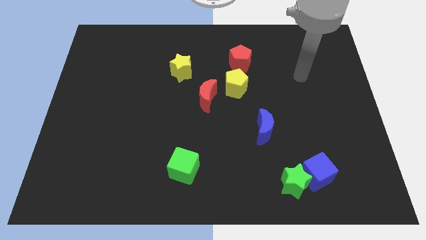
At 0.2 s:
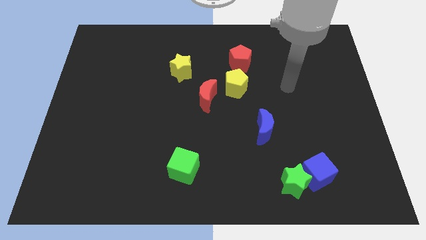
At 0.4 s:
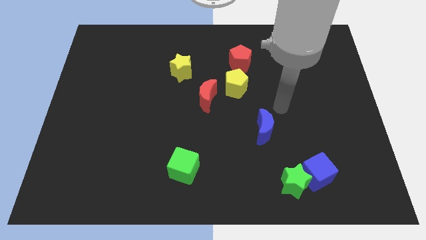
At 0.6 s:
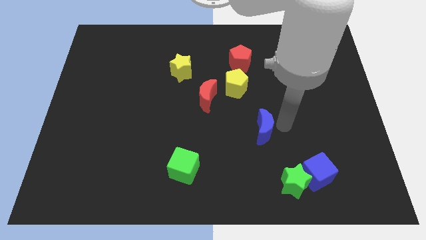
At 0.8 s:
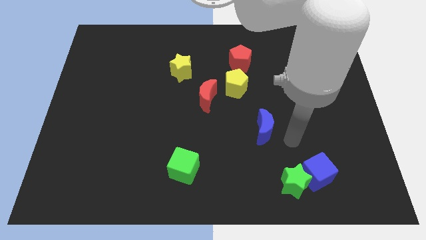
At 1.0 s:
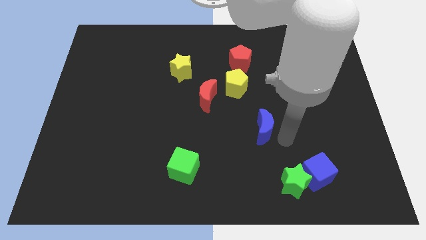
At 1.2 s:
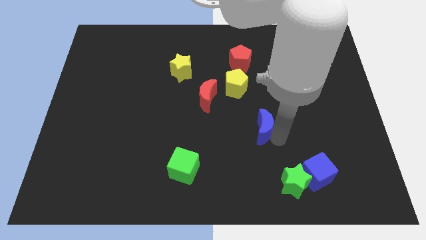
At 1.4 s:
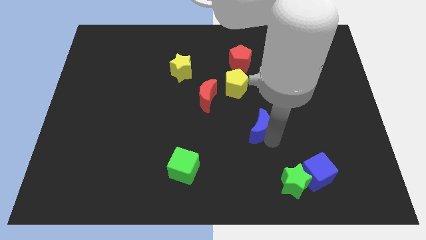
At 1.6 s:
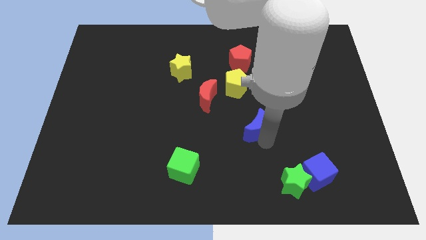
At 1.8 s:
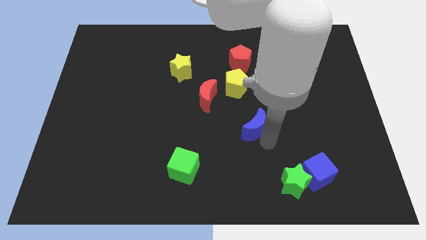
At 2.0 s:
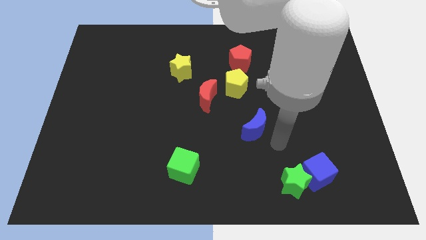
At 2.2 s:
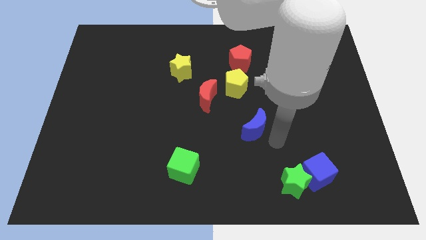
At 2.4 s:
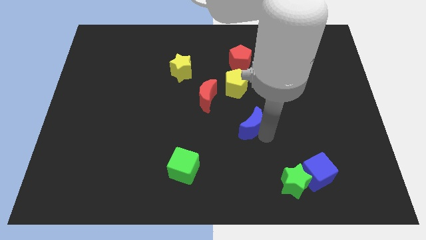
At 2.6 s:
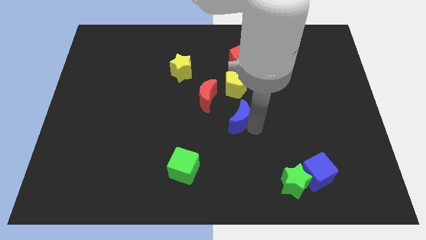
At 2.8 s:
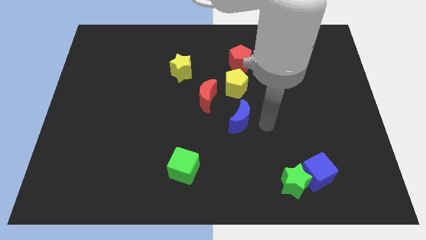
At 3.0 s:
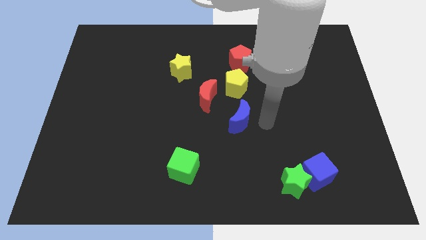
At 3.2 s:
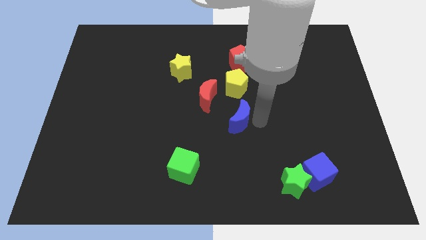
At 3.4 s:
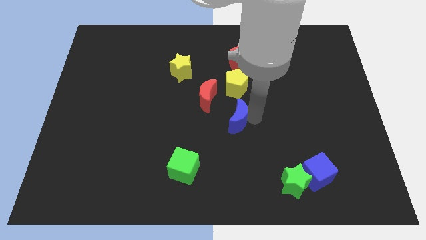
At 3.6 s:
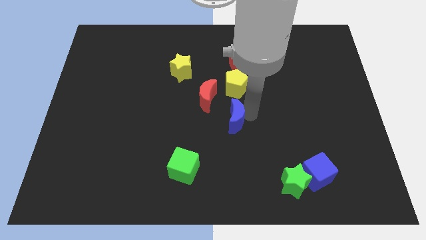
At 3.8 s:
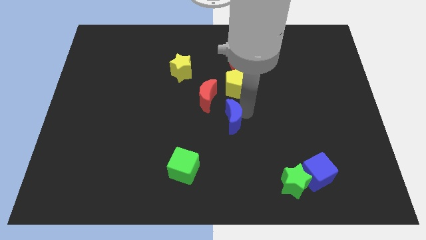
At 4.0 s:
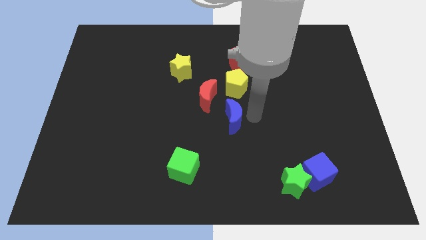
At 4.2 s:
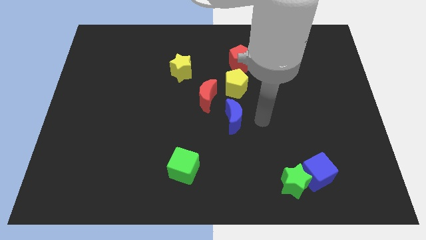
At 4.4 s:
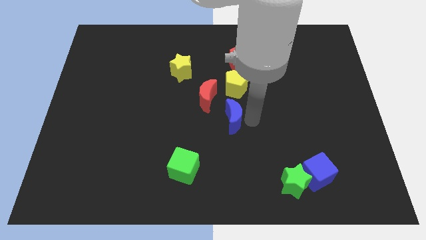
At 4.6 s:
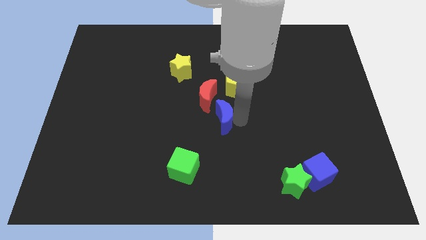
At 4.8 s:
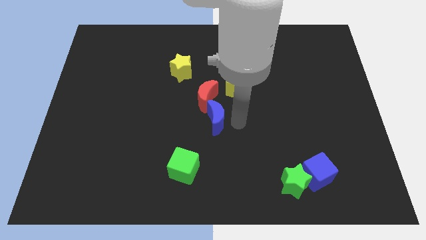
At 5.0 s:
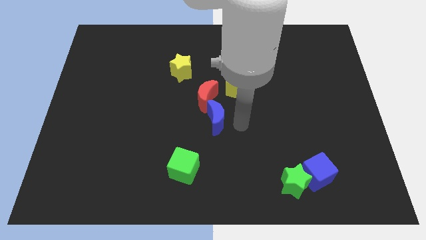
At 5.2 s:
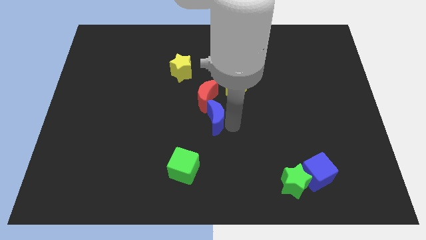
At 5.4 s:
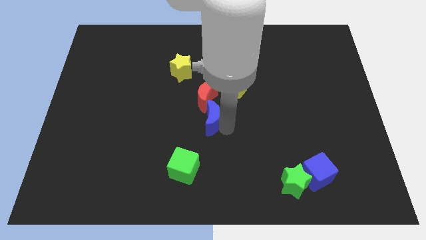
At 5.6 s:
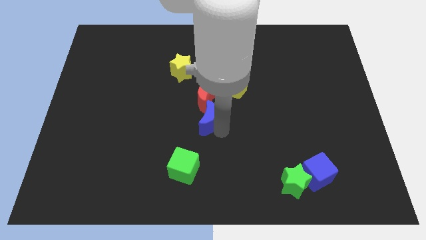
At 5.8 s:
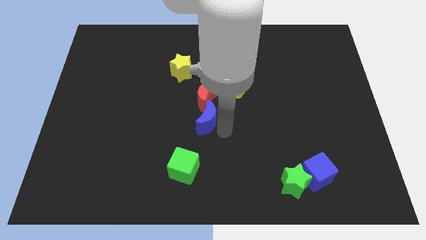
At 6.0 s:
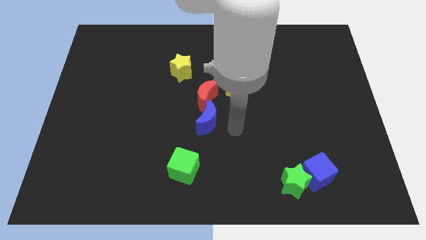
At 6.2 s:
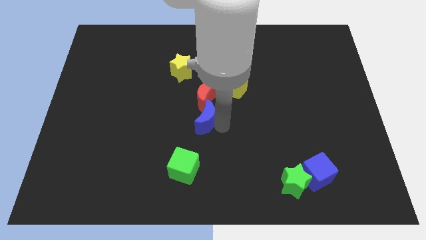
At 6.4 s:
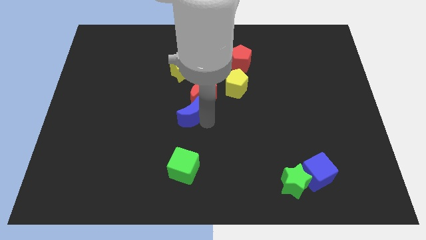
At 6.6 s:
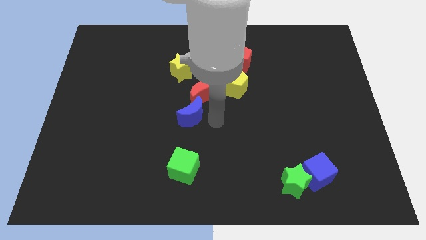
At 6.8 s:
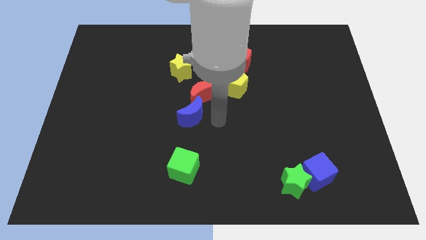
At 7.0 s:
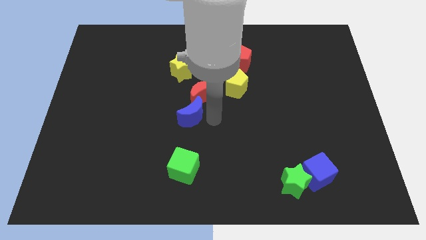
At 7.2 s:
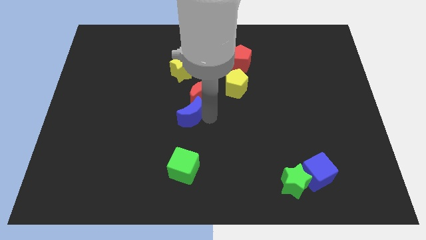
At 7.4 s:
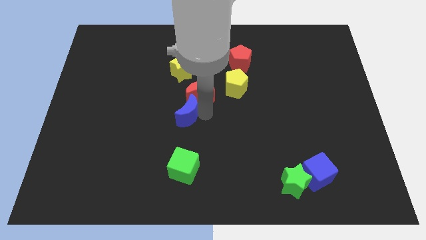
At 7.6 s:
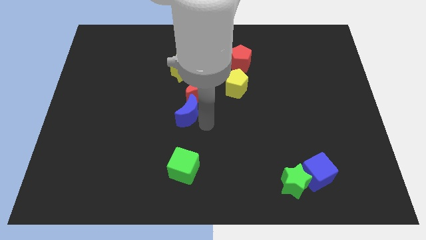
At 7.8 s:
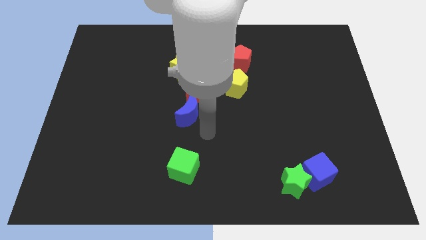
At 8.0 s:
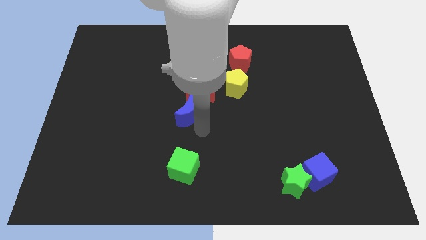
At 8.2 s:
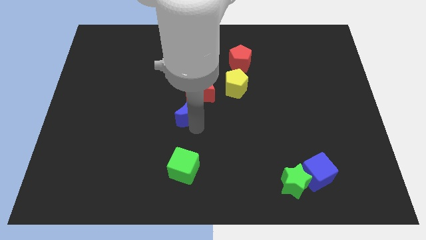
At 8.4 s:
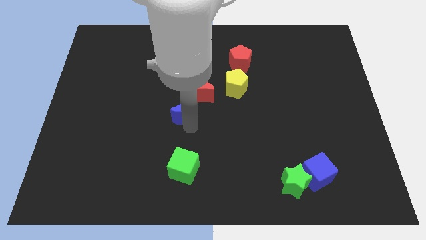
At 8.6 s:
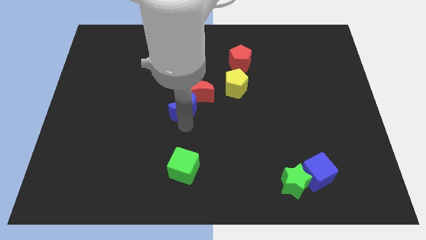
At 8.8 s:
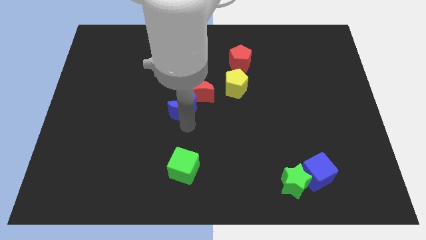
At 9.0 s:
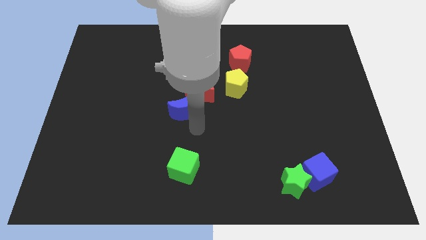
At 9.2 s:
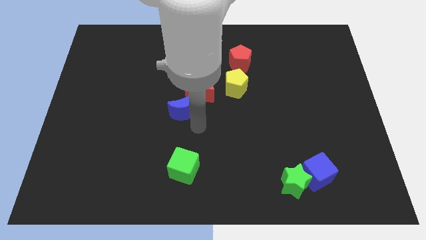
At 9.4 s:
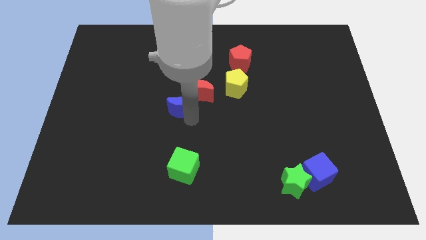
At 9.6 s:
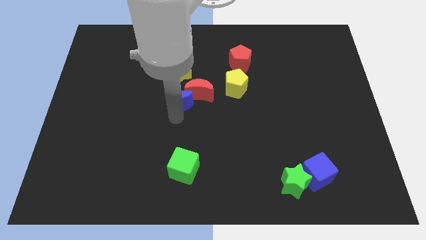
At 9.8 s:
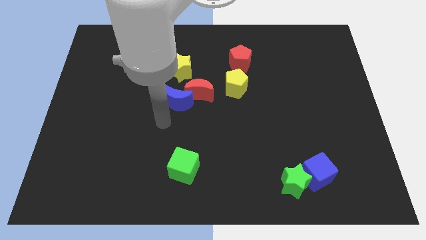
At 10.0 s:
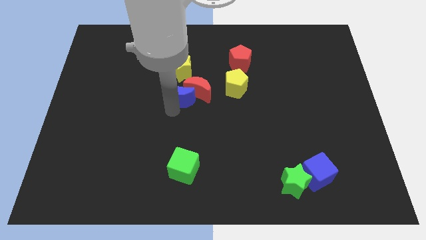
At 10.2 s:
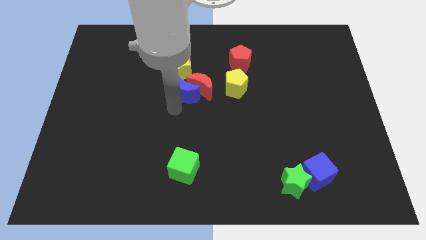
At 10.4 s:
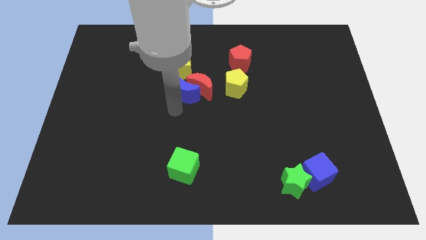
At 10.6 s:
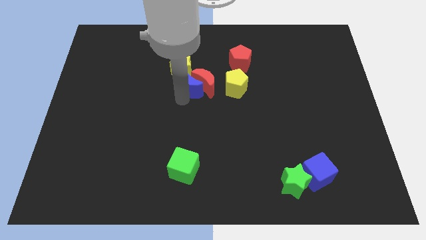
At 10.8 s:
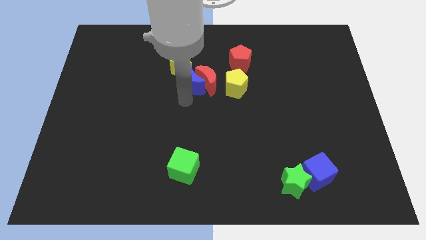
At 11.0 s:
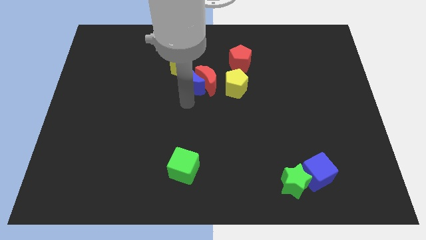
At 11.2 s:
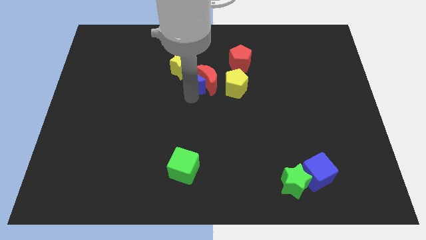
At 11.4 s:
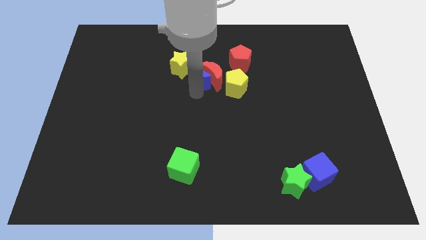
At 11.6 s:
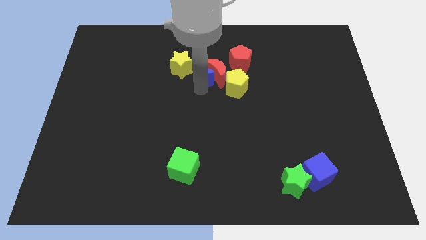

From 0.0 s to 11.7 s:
move the blue moon to the left of the red pentagon

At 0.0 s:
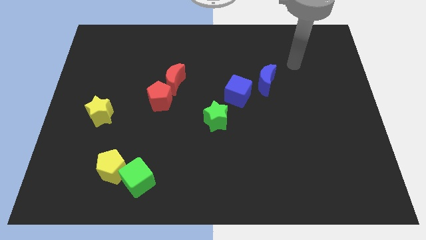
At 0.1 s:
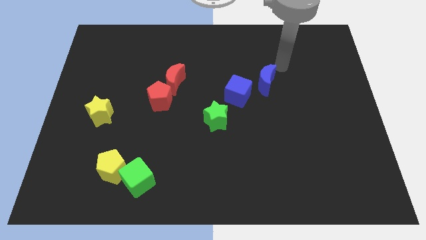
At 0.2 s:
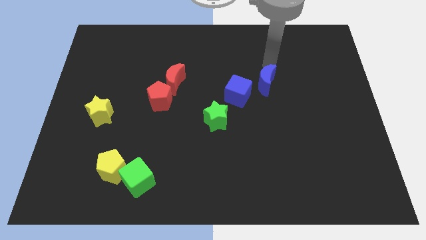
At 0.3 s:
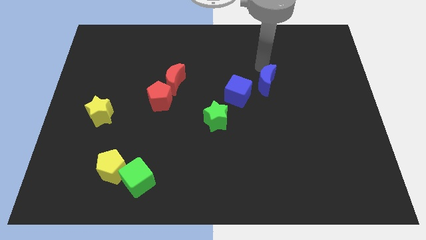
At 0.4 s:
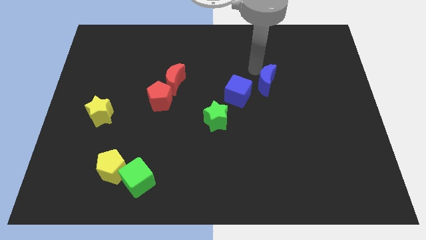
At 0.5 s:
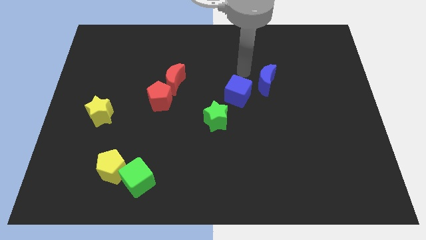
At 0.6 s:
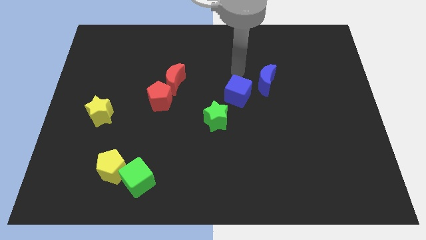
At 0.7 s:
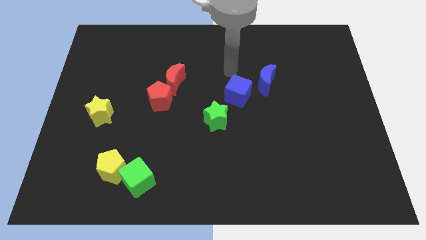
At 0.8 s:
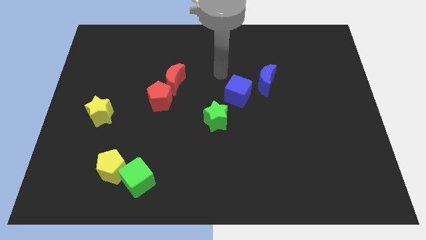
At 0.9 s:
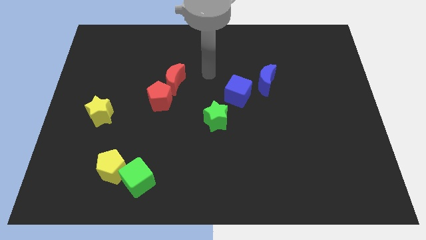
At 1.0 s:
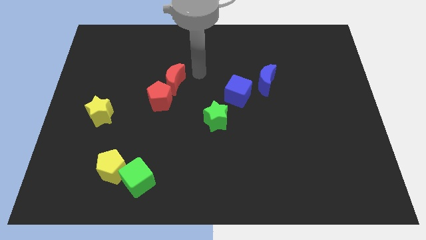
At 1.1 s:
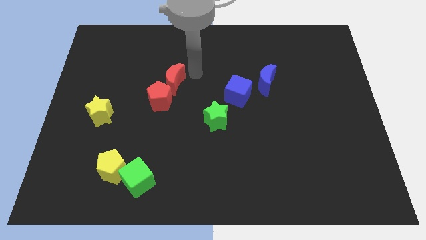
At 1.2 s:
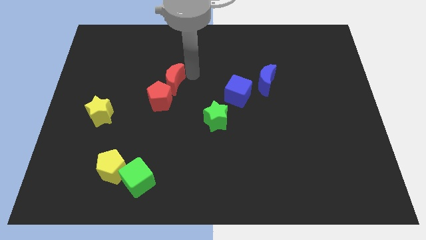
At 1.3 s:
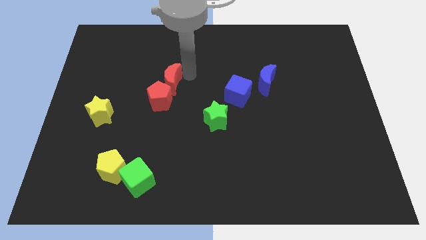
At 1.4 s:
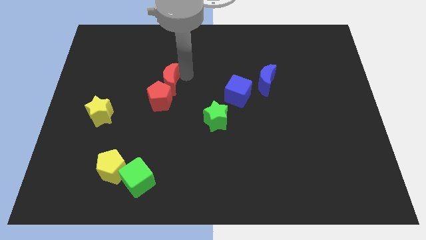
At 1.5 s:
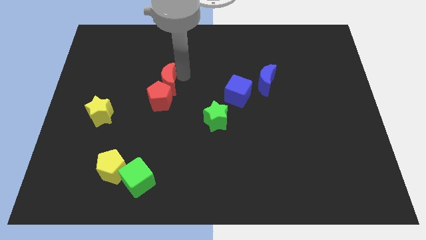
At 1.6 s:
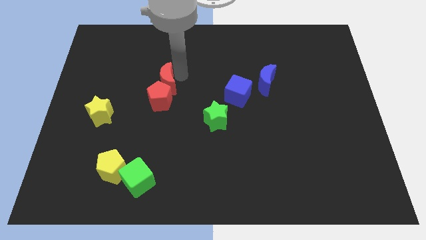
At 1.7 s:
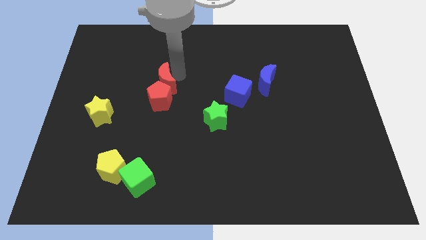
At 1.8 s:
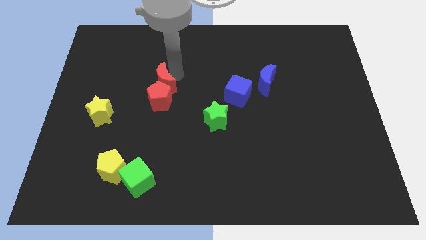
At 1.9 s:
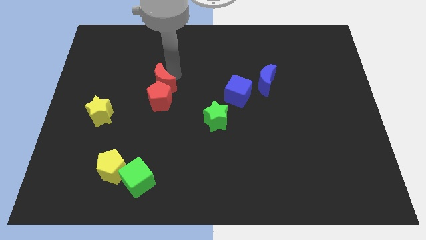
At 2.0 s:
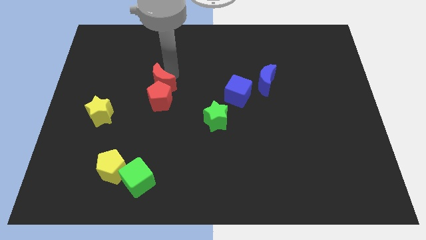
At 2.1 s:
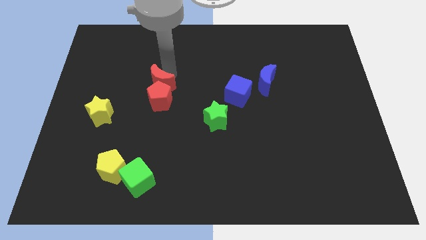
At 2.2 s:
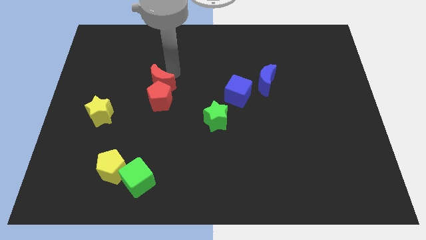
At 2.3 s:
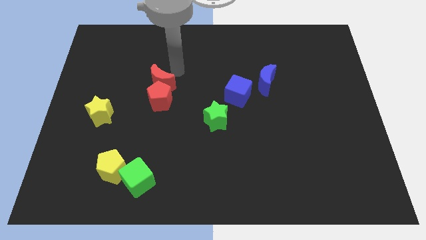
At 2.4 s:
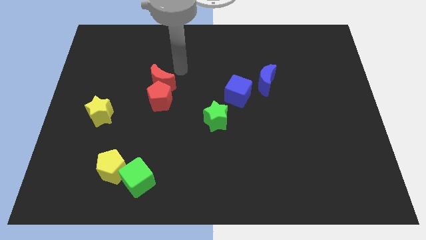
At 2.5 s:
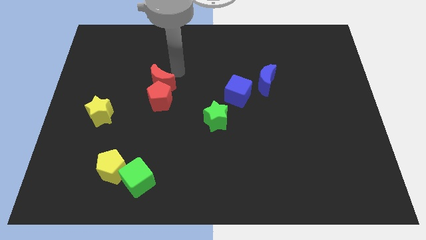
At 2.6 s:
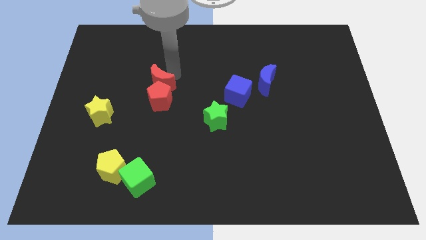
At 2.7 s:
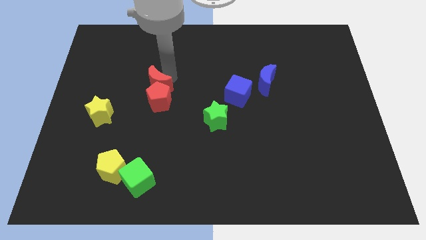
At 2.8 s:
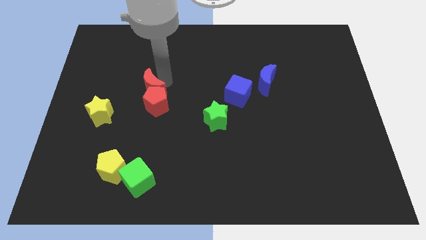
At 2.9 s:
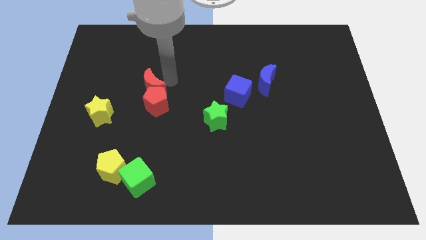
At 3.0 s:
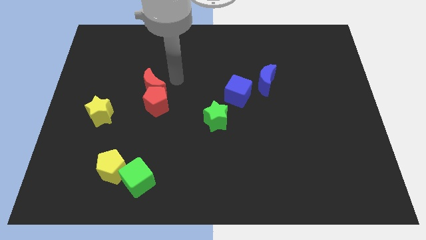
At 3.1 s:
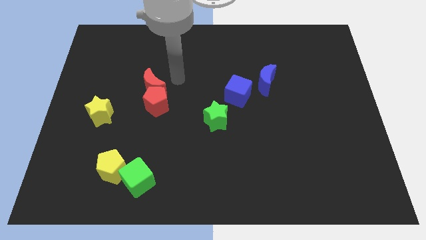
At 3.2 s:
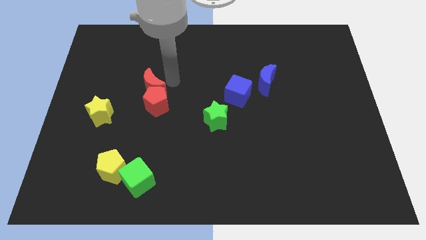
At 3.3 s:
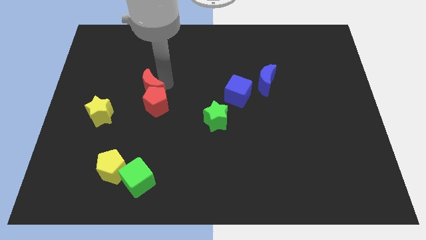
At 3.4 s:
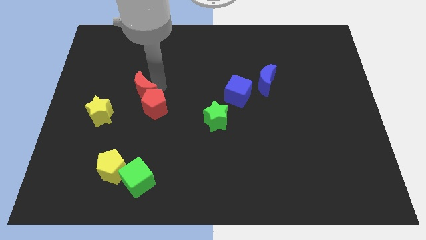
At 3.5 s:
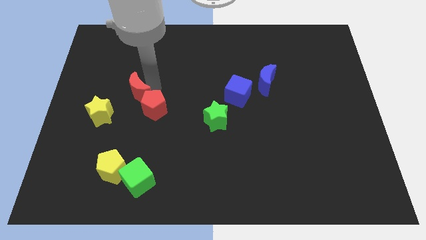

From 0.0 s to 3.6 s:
move the red moon to the left of the red pentagon
